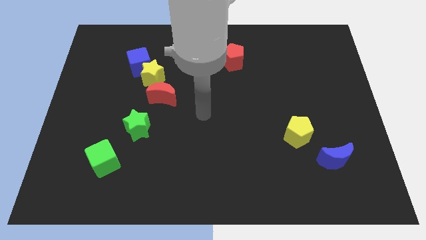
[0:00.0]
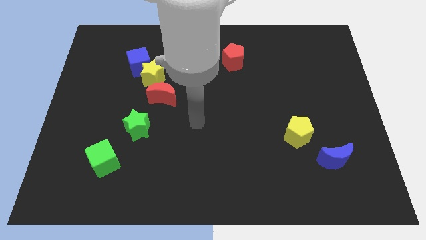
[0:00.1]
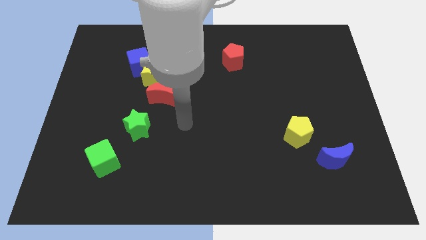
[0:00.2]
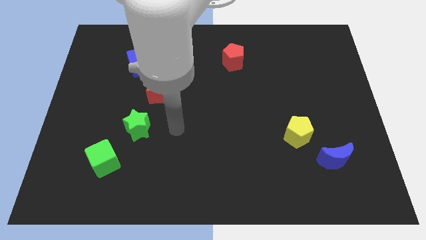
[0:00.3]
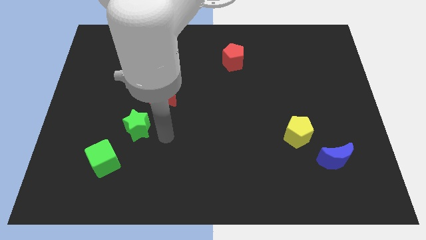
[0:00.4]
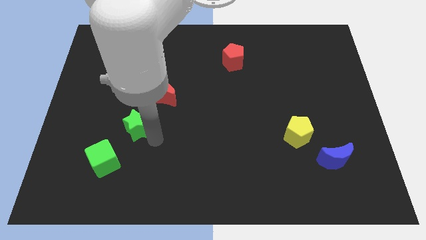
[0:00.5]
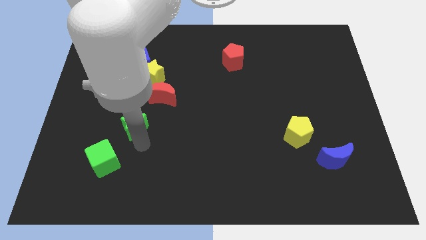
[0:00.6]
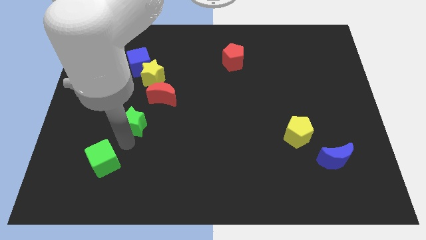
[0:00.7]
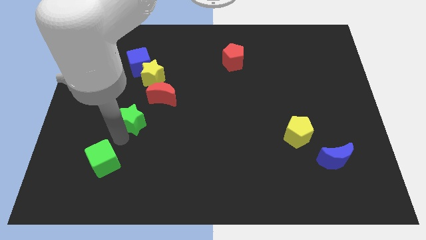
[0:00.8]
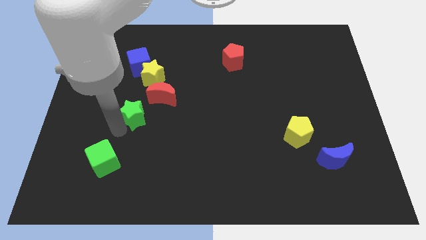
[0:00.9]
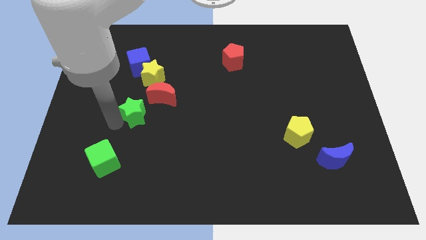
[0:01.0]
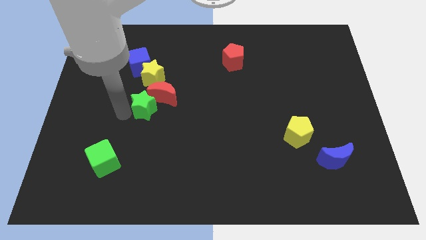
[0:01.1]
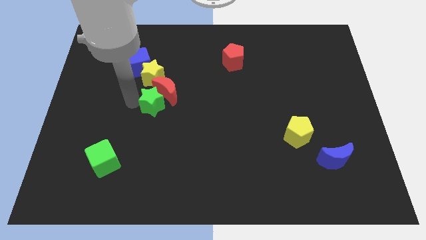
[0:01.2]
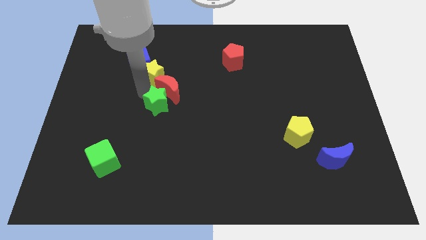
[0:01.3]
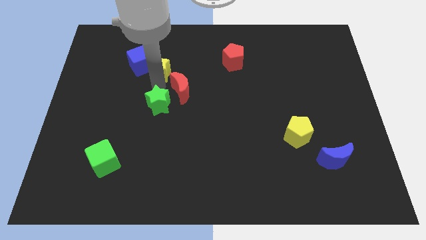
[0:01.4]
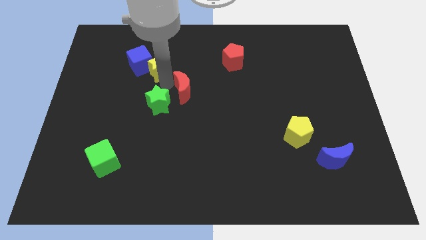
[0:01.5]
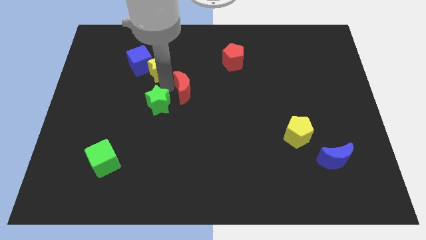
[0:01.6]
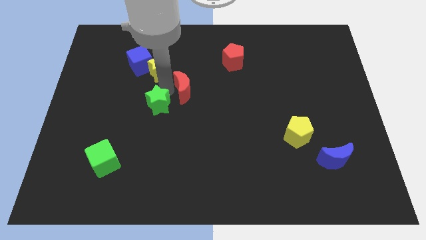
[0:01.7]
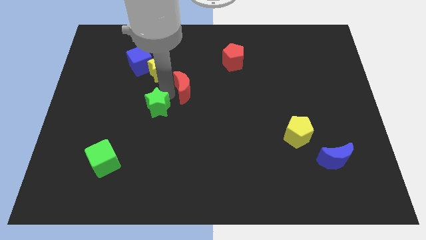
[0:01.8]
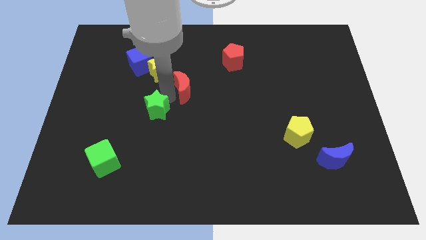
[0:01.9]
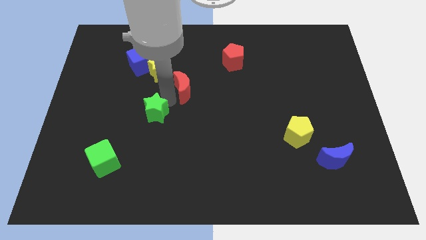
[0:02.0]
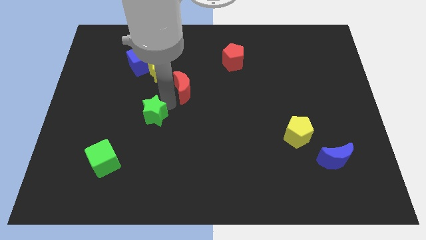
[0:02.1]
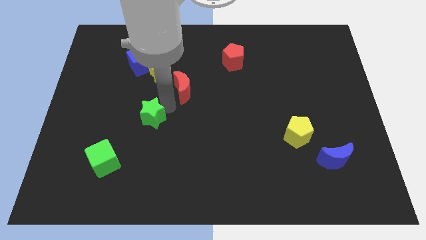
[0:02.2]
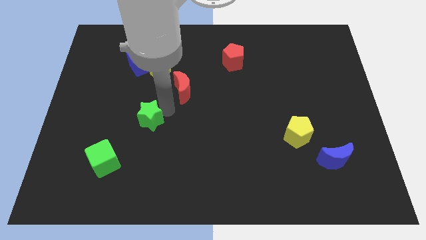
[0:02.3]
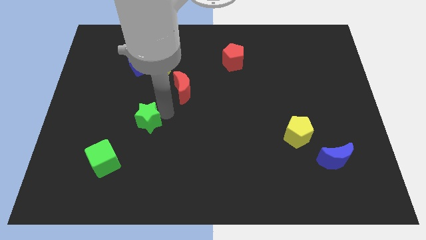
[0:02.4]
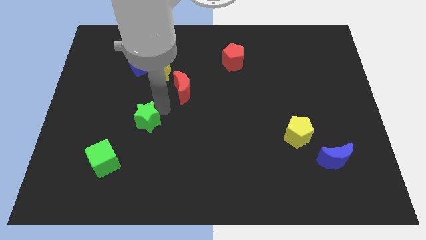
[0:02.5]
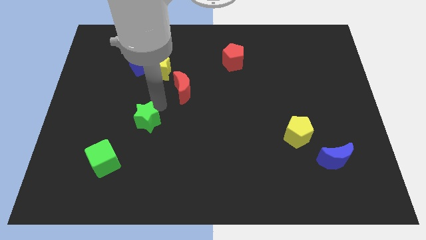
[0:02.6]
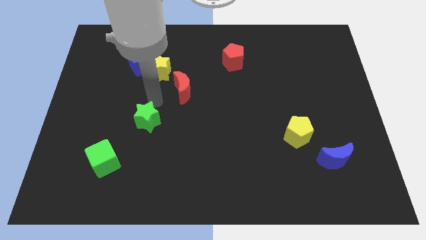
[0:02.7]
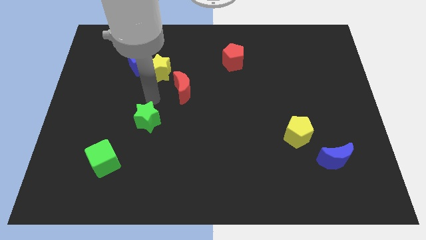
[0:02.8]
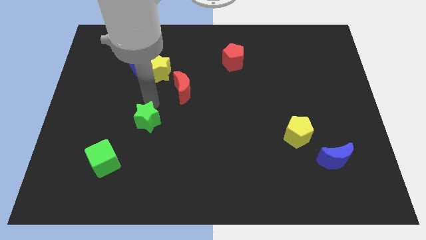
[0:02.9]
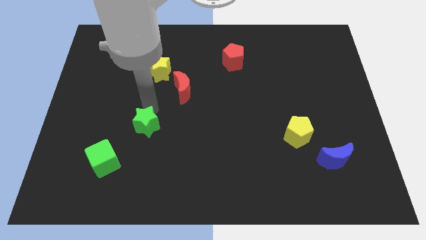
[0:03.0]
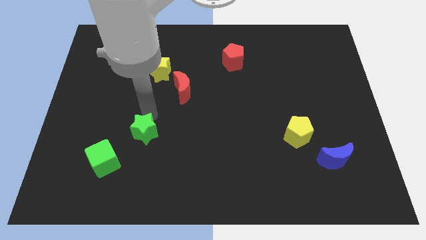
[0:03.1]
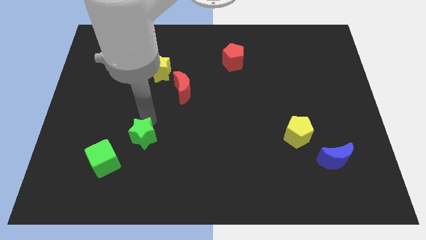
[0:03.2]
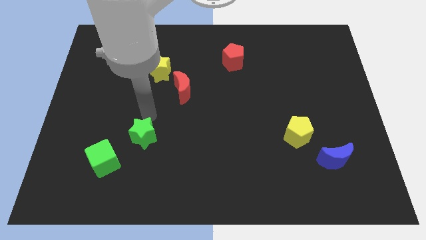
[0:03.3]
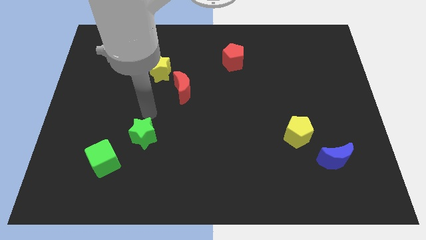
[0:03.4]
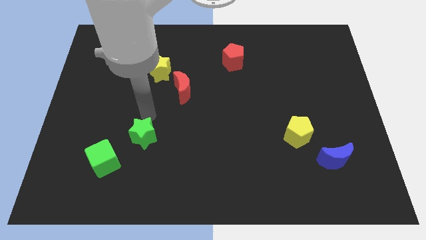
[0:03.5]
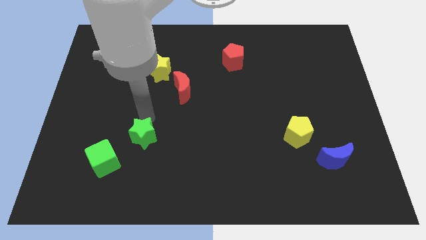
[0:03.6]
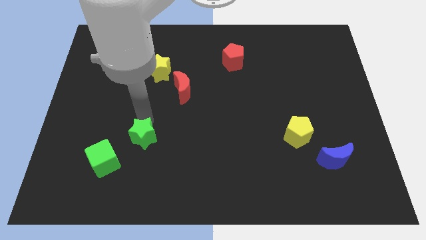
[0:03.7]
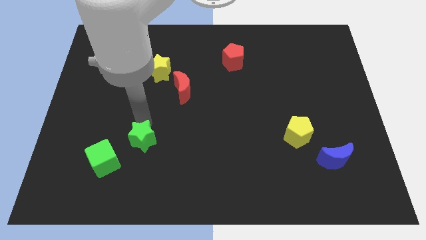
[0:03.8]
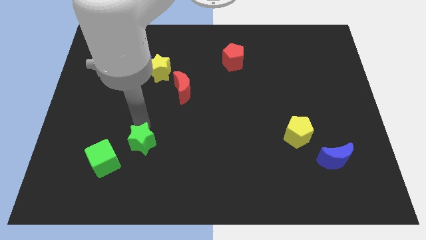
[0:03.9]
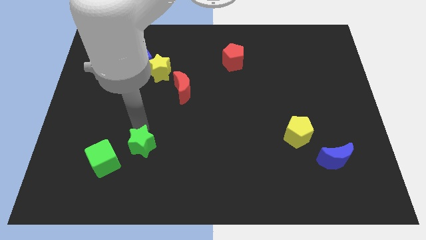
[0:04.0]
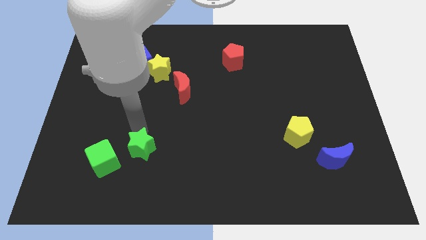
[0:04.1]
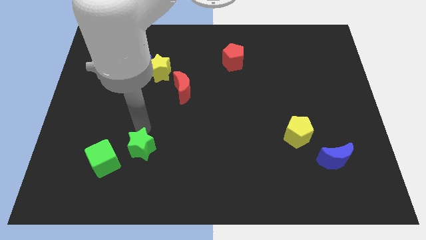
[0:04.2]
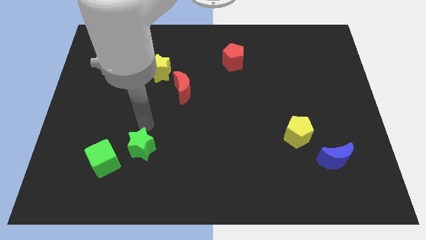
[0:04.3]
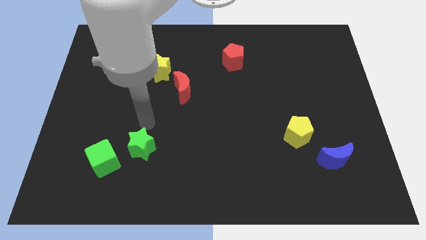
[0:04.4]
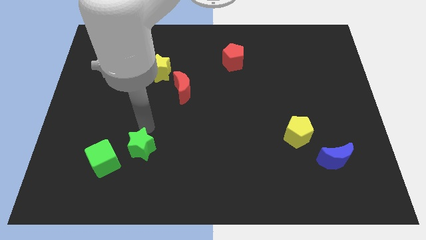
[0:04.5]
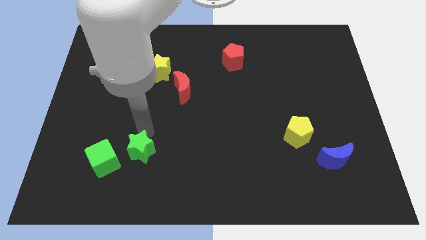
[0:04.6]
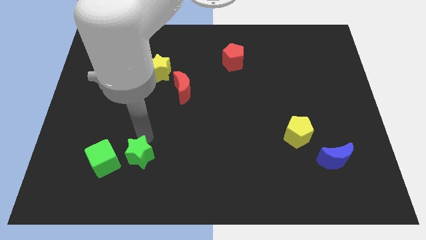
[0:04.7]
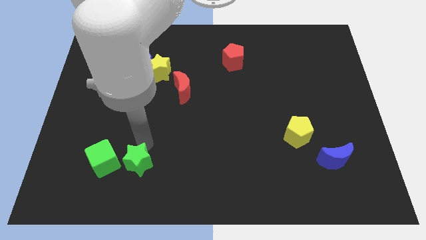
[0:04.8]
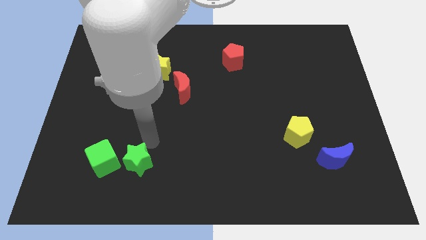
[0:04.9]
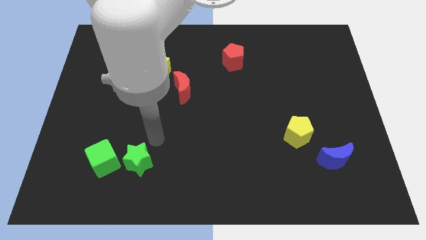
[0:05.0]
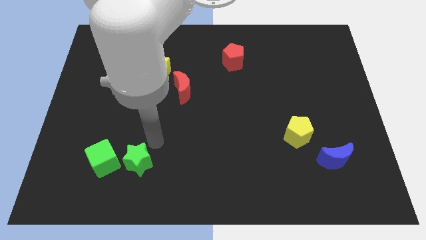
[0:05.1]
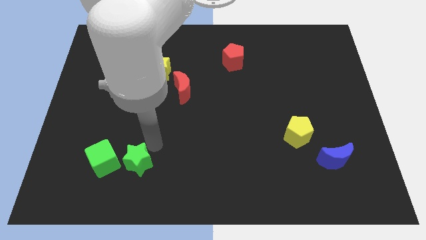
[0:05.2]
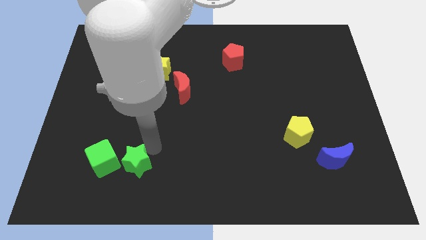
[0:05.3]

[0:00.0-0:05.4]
put the green star to the bottom right side of the green cube

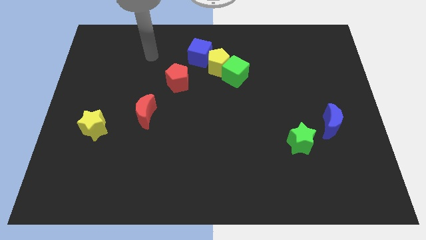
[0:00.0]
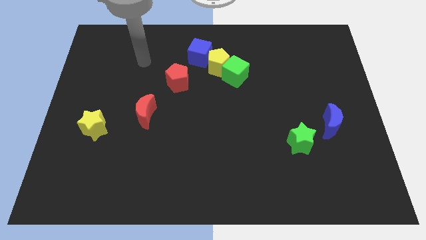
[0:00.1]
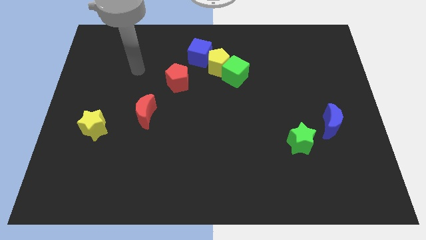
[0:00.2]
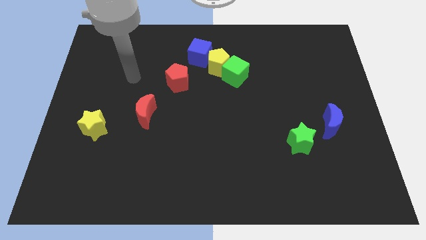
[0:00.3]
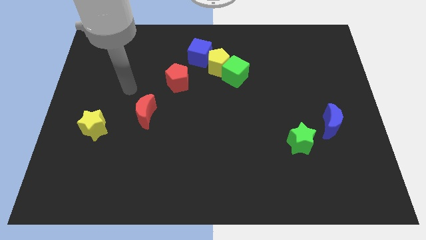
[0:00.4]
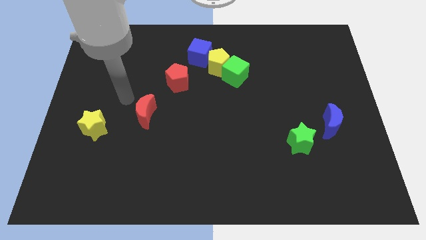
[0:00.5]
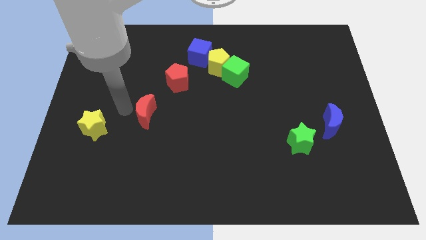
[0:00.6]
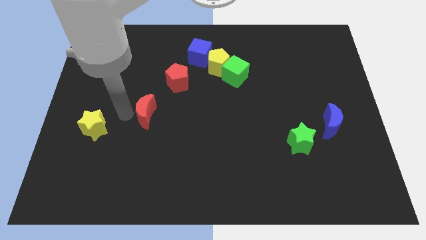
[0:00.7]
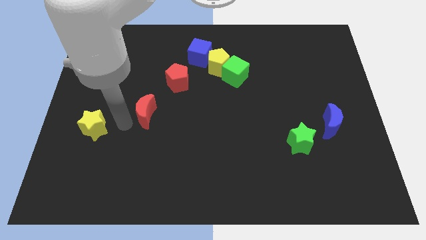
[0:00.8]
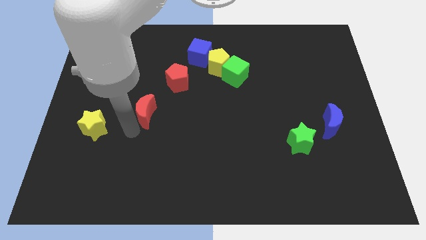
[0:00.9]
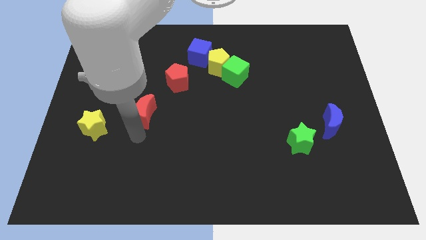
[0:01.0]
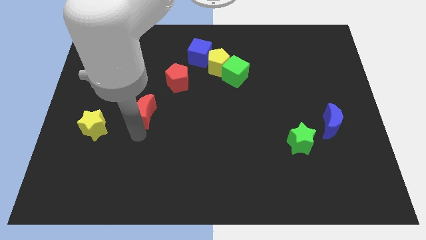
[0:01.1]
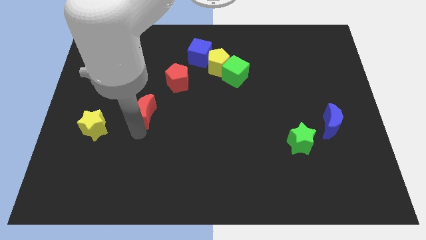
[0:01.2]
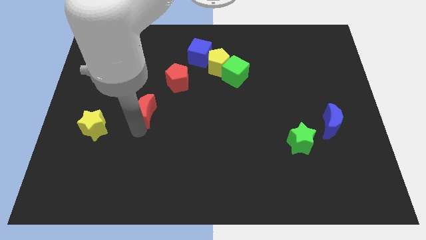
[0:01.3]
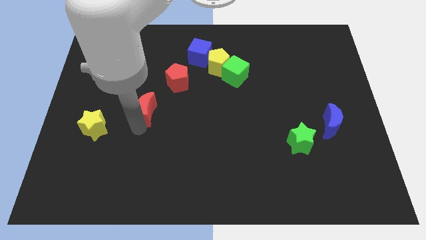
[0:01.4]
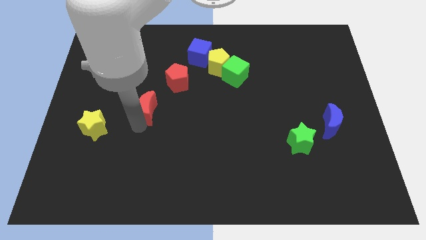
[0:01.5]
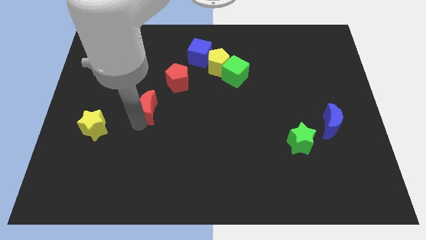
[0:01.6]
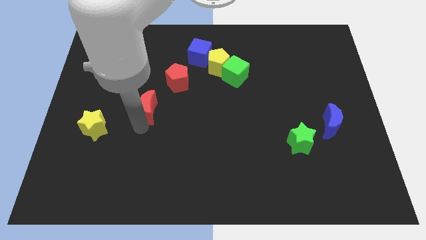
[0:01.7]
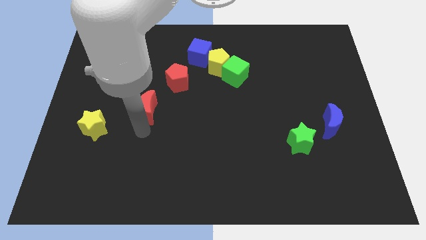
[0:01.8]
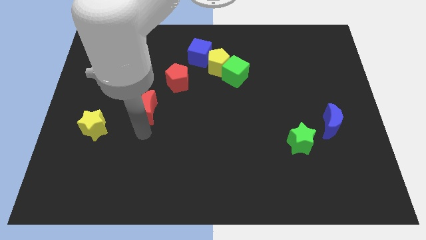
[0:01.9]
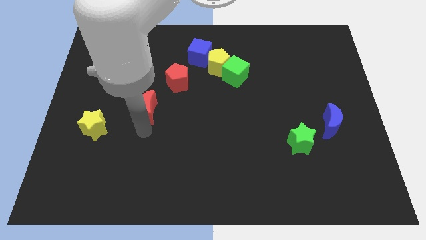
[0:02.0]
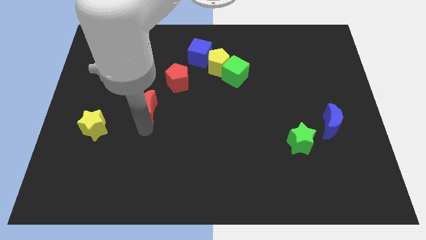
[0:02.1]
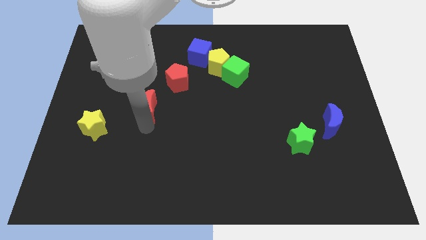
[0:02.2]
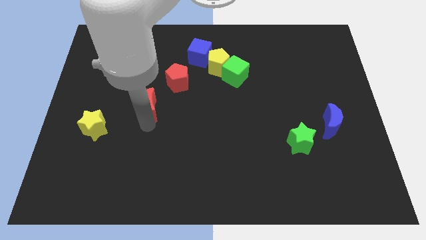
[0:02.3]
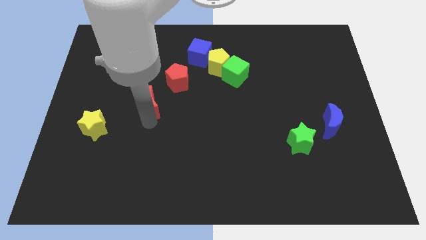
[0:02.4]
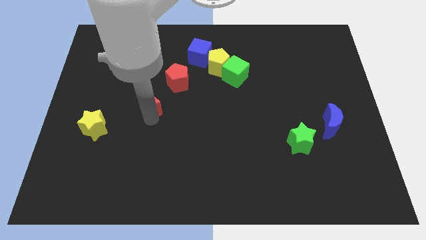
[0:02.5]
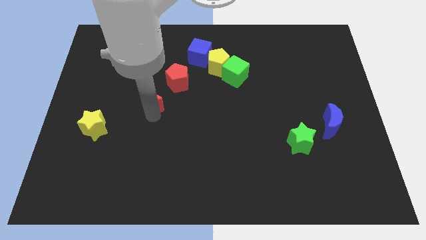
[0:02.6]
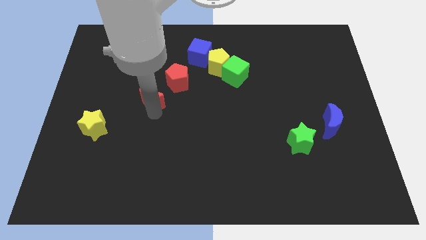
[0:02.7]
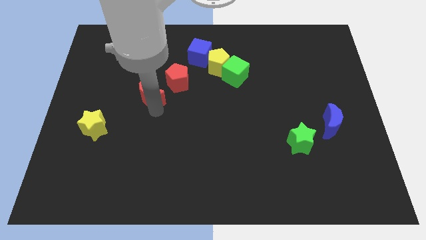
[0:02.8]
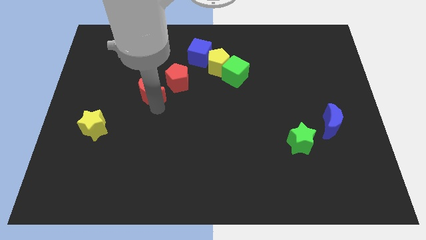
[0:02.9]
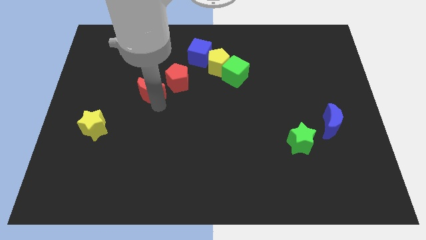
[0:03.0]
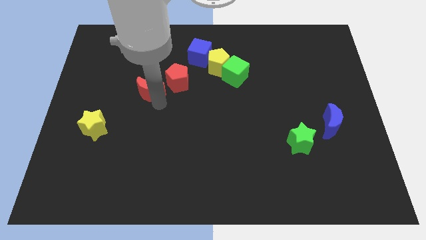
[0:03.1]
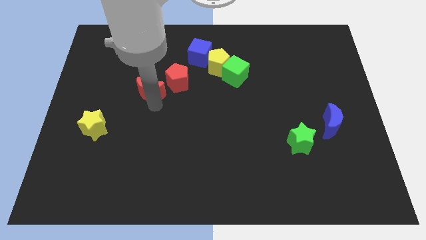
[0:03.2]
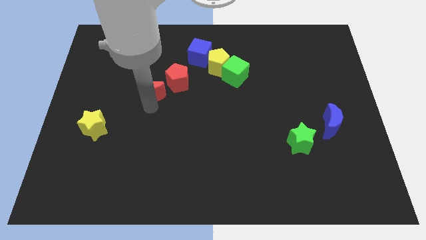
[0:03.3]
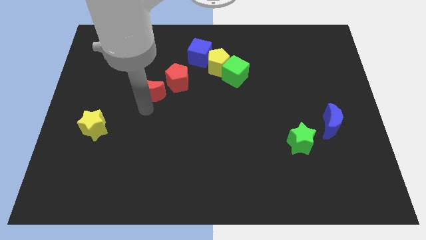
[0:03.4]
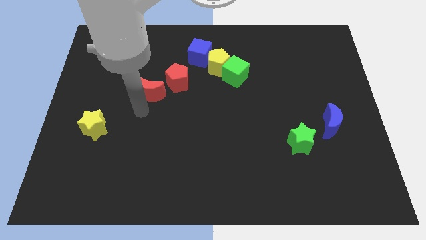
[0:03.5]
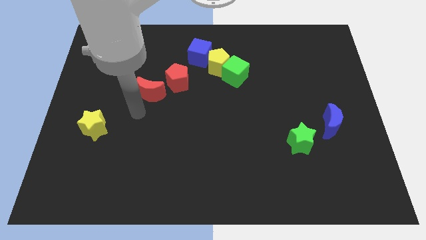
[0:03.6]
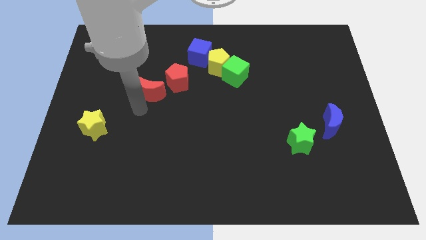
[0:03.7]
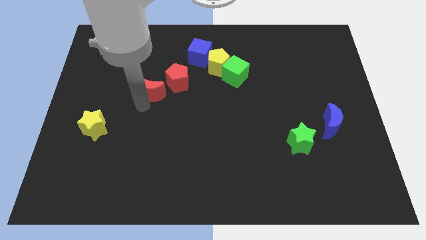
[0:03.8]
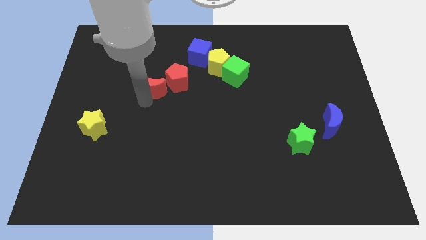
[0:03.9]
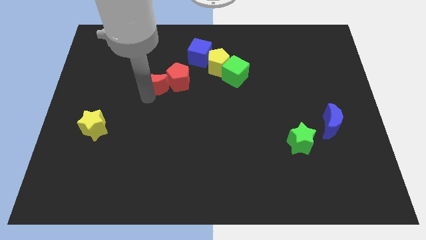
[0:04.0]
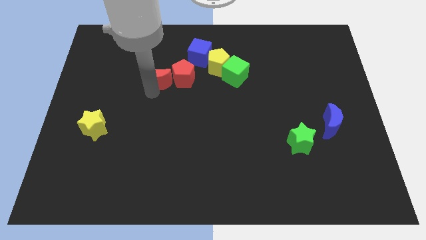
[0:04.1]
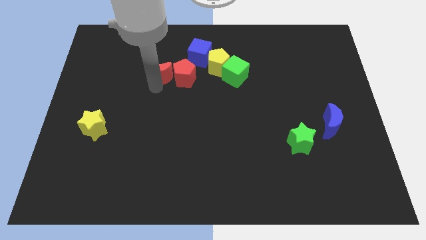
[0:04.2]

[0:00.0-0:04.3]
push the red moon diagonally up and to the left of the red pentagon
